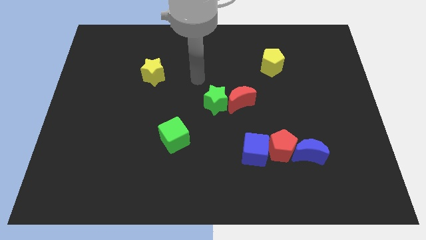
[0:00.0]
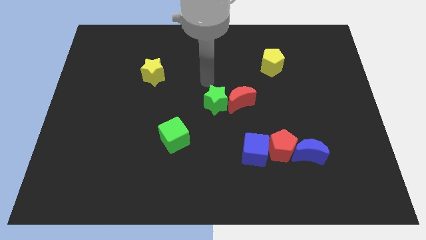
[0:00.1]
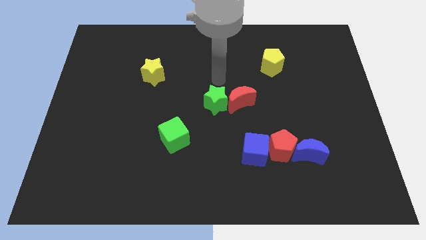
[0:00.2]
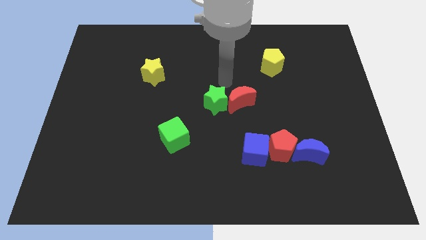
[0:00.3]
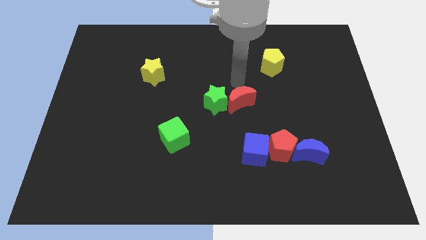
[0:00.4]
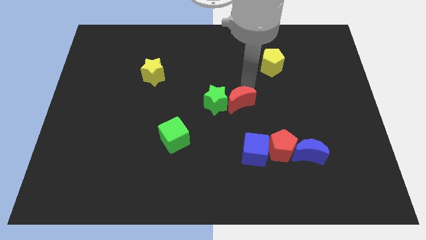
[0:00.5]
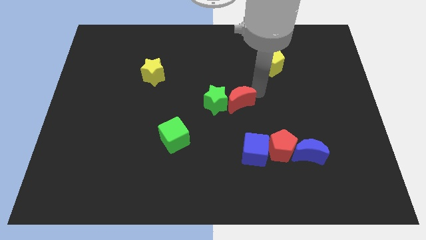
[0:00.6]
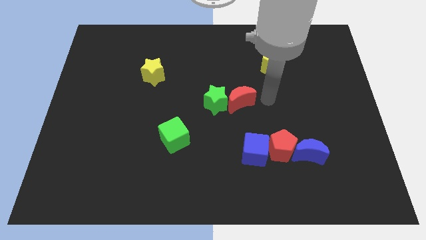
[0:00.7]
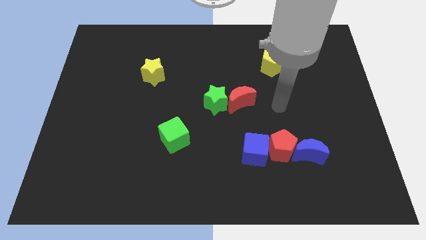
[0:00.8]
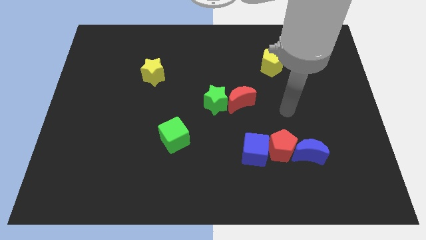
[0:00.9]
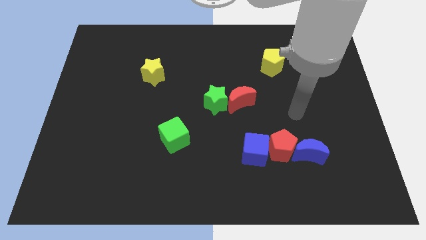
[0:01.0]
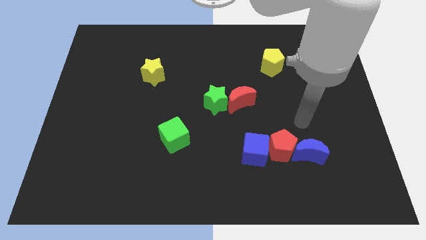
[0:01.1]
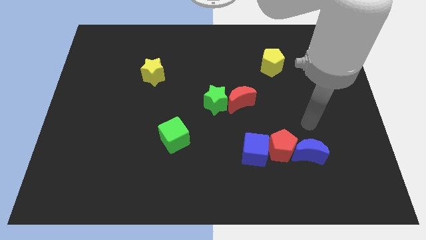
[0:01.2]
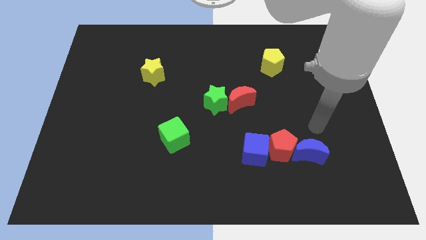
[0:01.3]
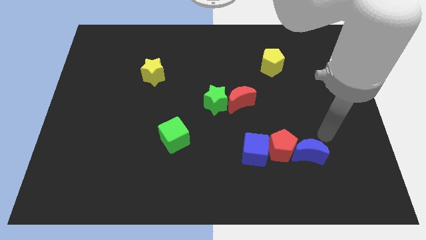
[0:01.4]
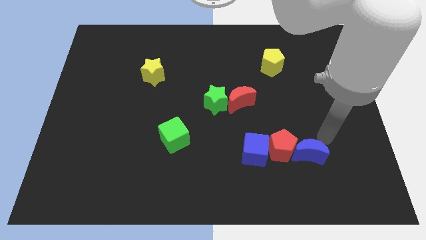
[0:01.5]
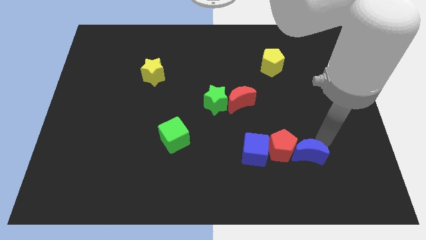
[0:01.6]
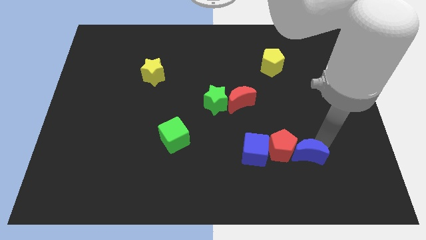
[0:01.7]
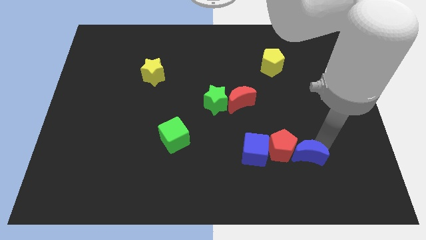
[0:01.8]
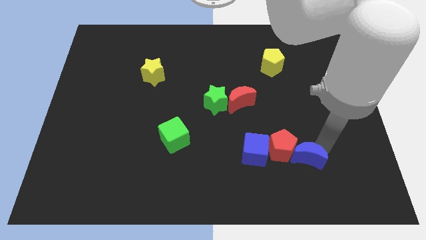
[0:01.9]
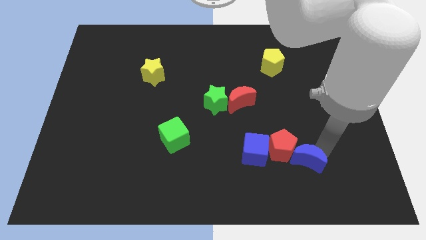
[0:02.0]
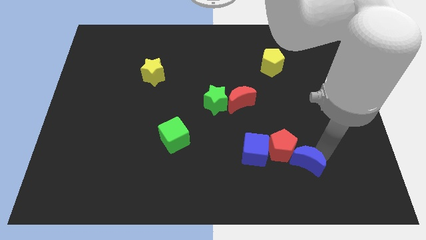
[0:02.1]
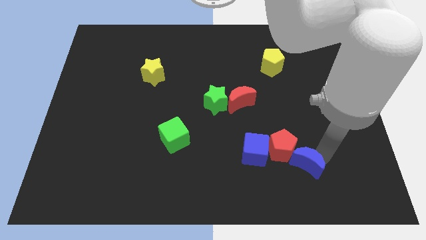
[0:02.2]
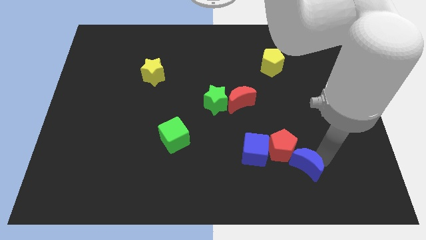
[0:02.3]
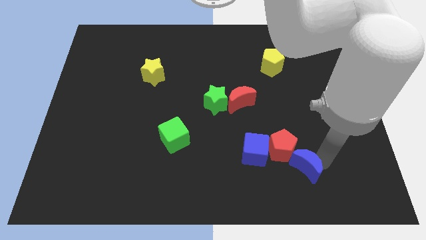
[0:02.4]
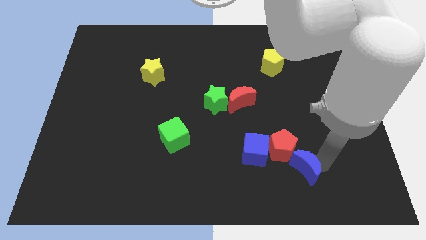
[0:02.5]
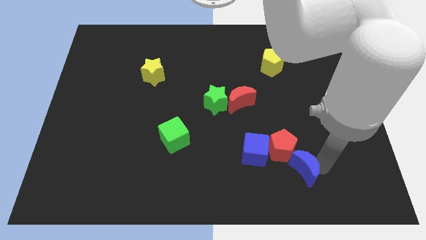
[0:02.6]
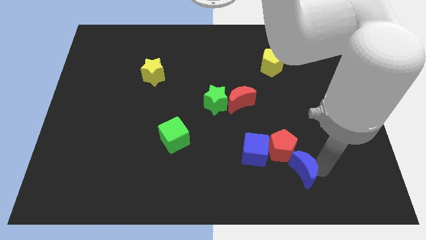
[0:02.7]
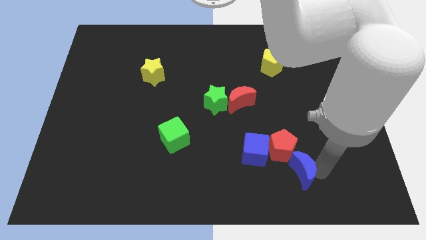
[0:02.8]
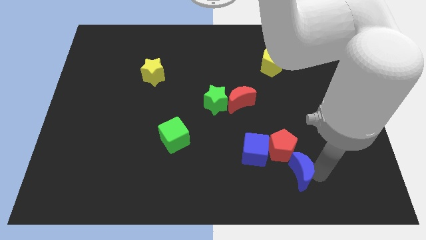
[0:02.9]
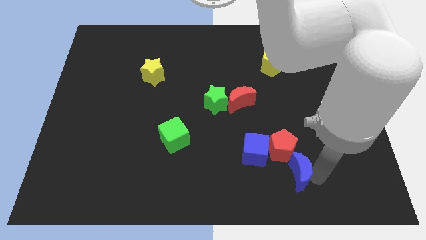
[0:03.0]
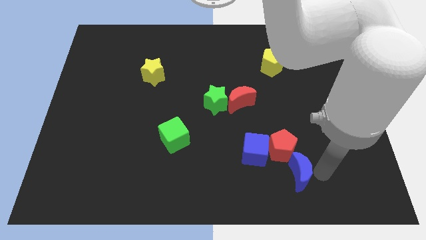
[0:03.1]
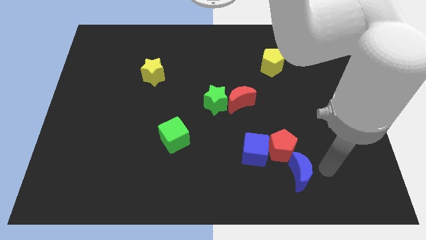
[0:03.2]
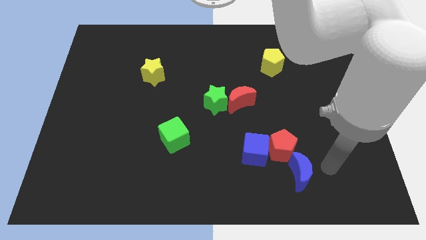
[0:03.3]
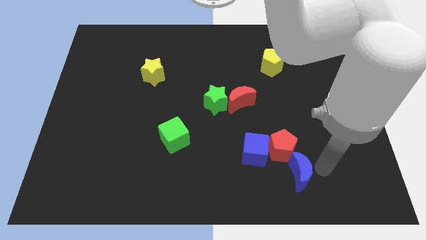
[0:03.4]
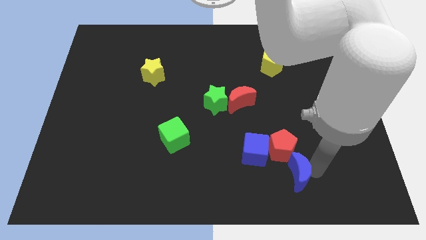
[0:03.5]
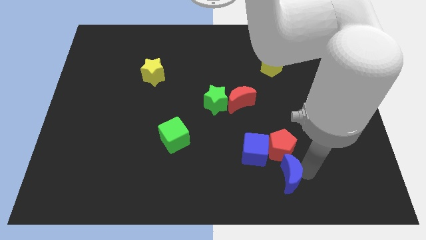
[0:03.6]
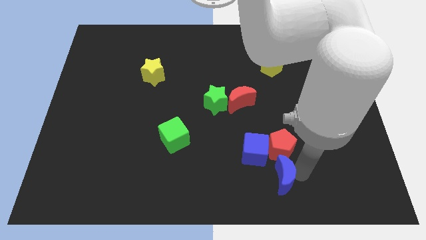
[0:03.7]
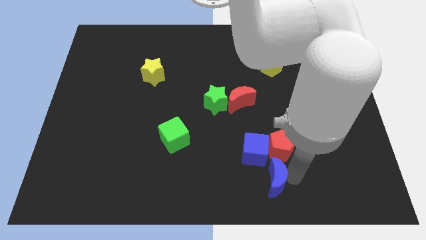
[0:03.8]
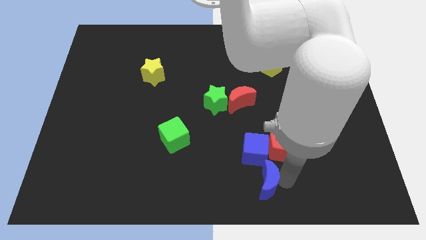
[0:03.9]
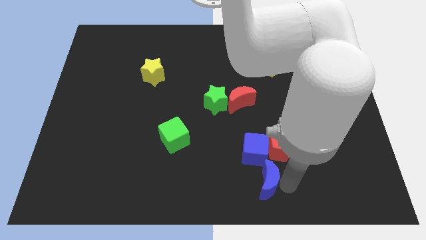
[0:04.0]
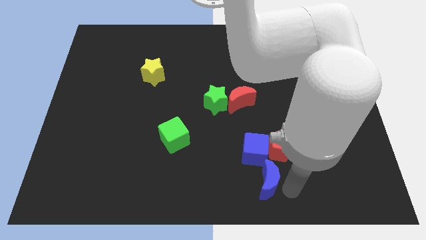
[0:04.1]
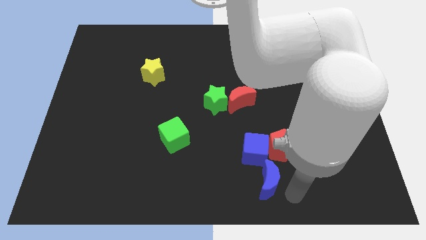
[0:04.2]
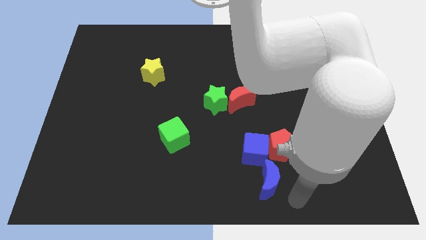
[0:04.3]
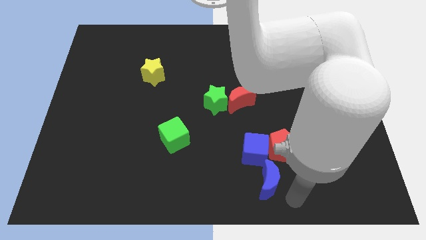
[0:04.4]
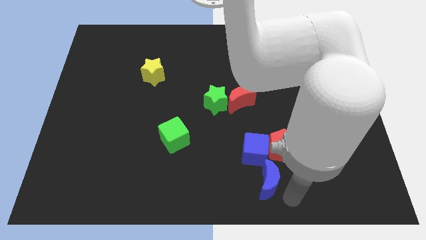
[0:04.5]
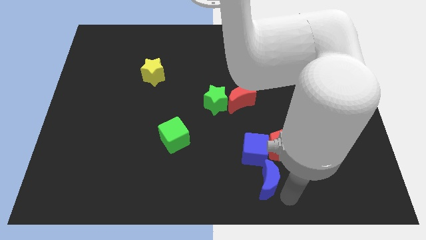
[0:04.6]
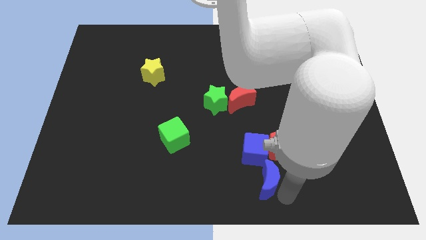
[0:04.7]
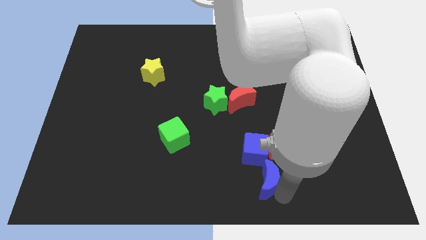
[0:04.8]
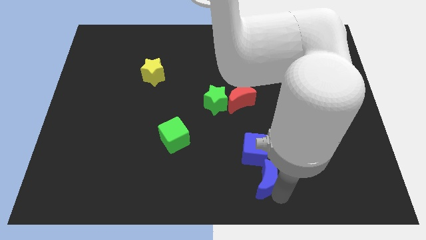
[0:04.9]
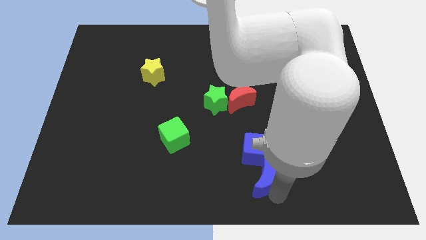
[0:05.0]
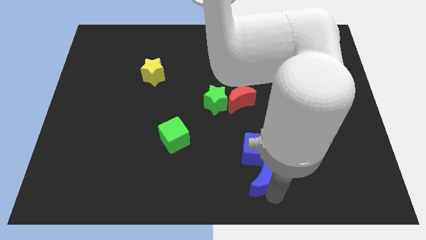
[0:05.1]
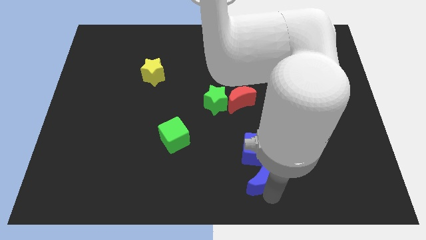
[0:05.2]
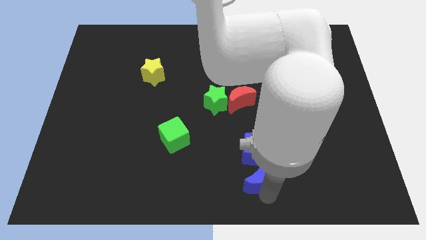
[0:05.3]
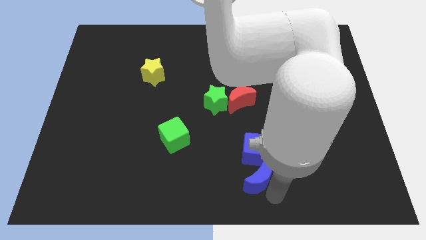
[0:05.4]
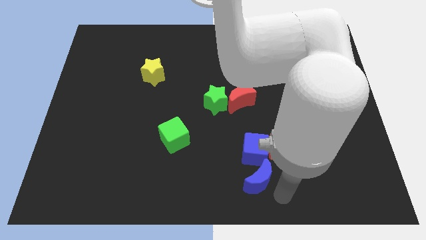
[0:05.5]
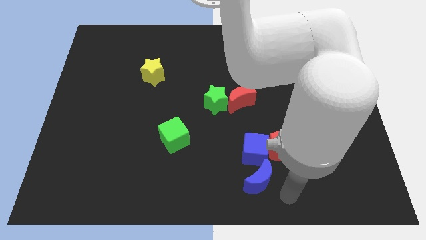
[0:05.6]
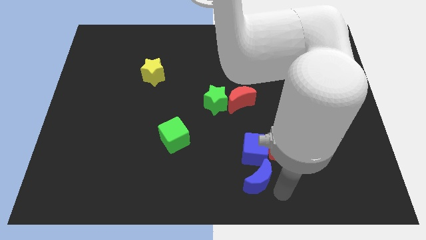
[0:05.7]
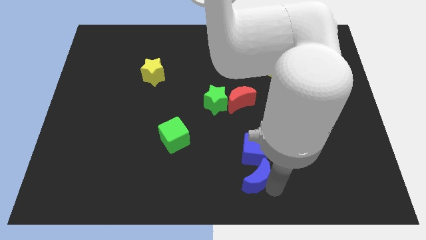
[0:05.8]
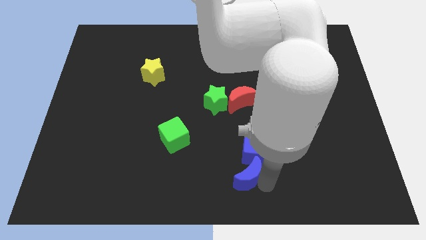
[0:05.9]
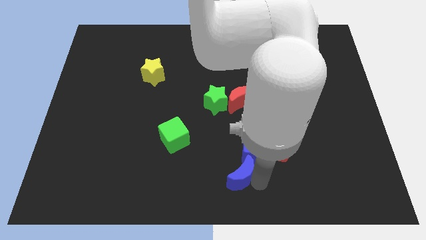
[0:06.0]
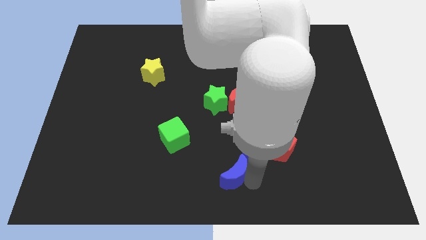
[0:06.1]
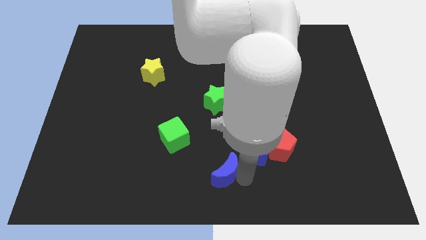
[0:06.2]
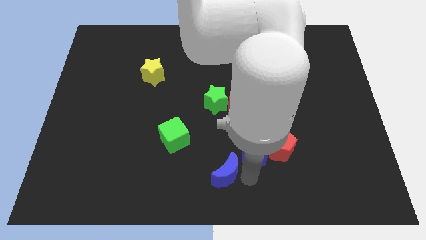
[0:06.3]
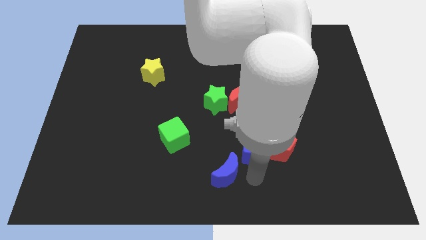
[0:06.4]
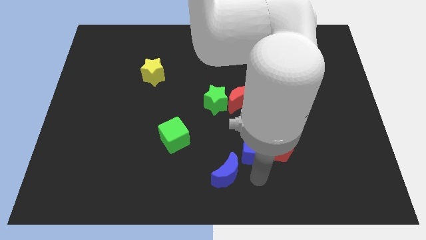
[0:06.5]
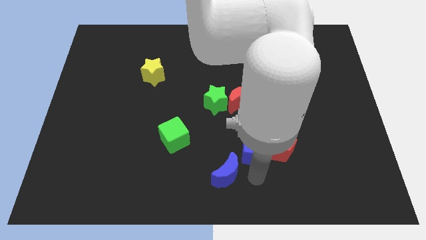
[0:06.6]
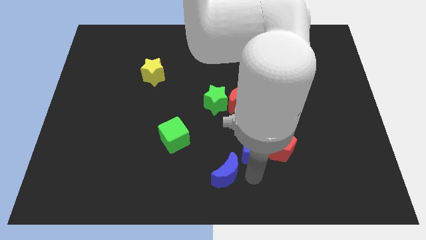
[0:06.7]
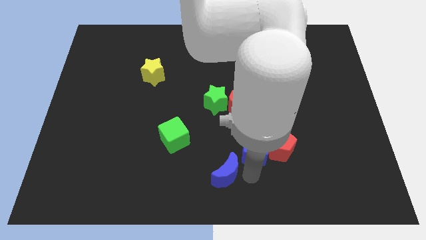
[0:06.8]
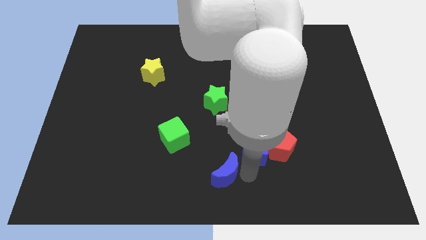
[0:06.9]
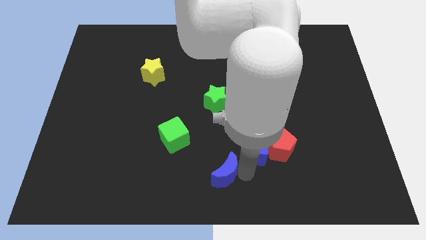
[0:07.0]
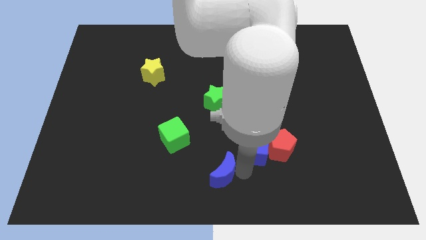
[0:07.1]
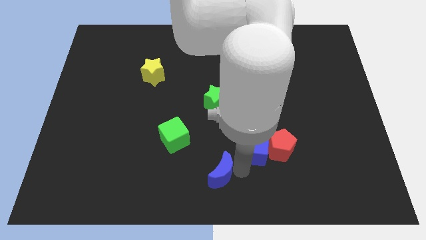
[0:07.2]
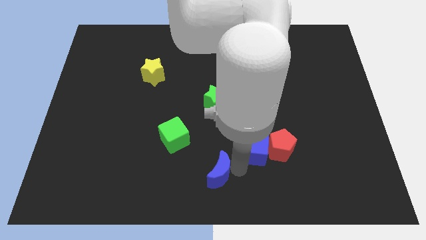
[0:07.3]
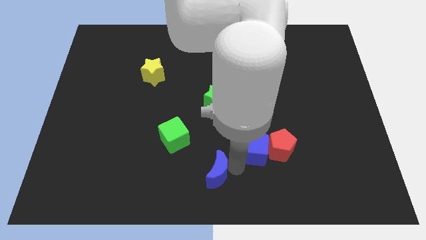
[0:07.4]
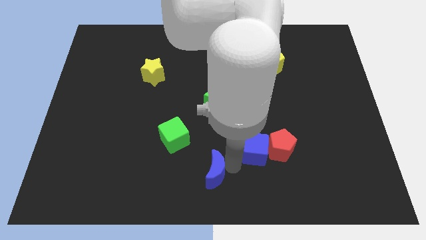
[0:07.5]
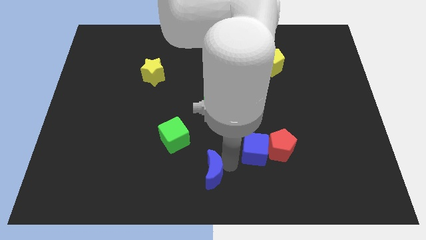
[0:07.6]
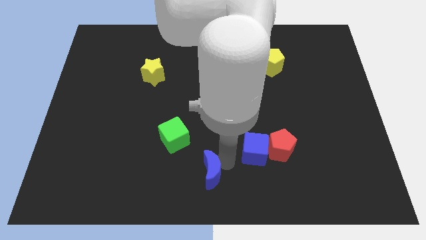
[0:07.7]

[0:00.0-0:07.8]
move the blue moon left
